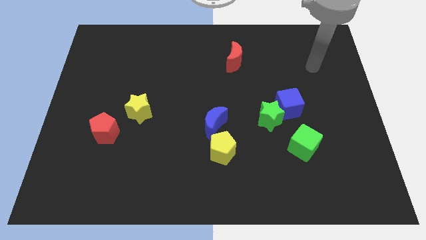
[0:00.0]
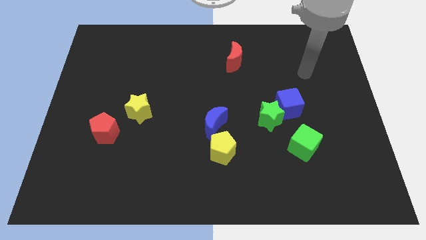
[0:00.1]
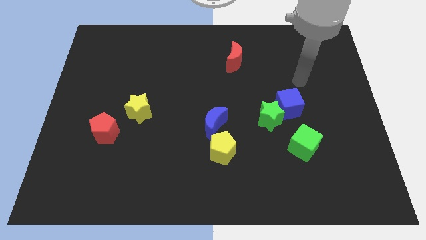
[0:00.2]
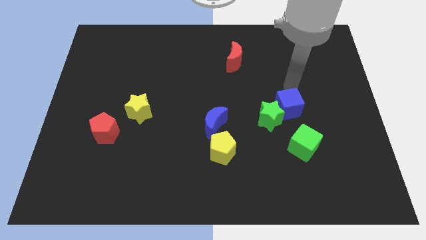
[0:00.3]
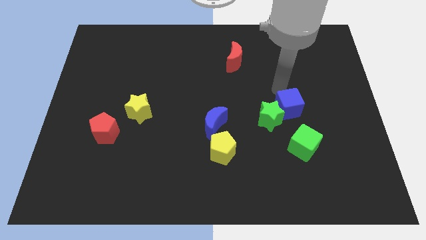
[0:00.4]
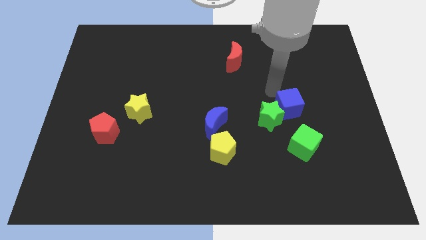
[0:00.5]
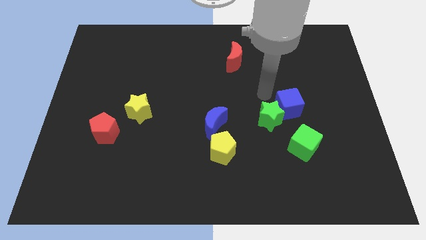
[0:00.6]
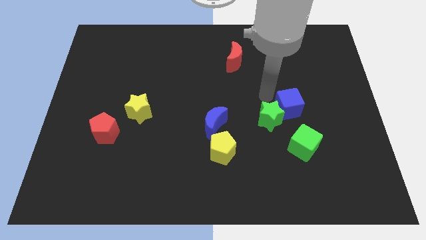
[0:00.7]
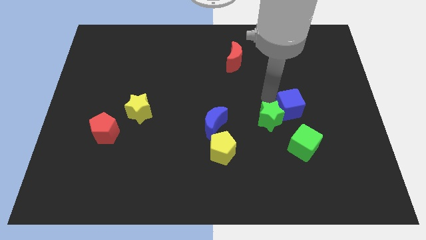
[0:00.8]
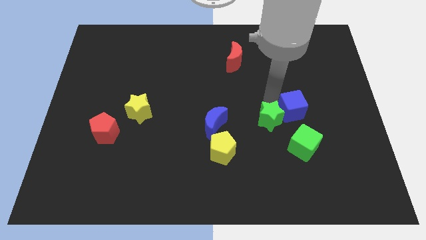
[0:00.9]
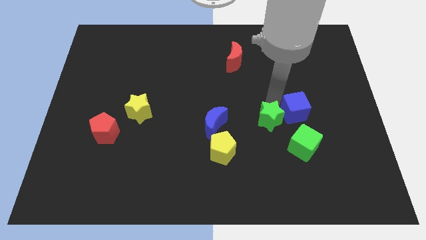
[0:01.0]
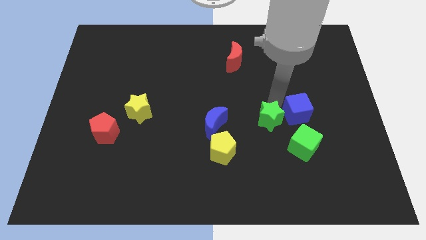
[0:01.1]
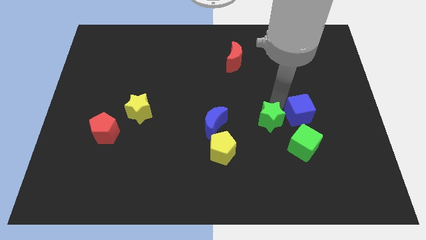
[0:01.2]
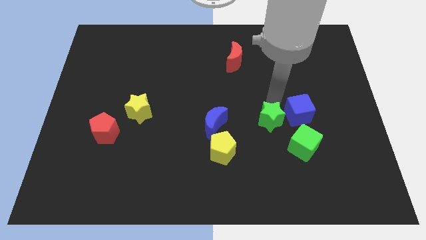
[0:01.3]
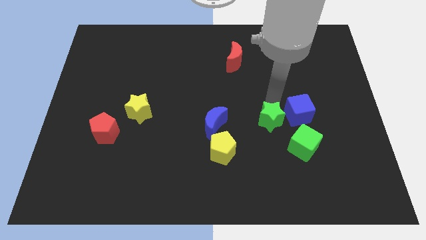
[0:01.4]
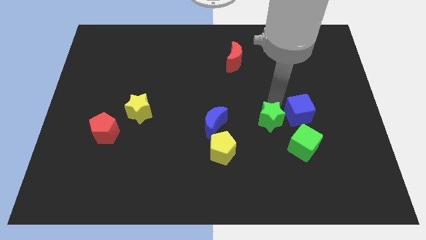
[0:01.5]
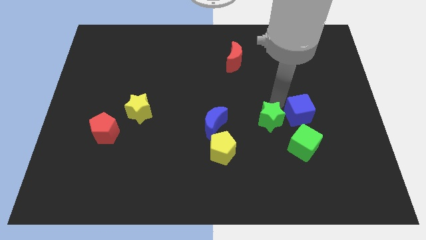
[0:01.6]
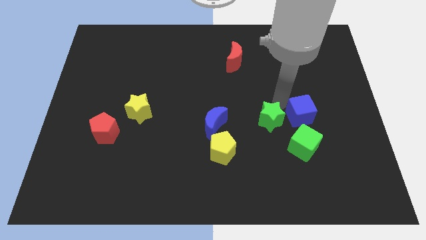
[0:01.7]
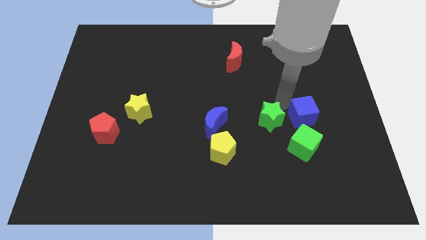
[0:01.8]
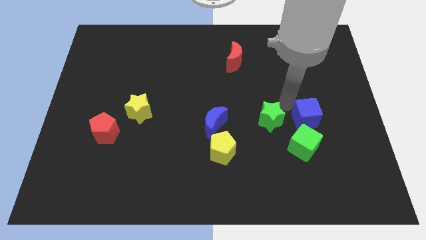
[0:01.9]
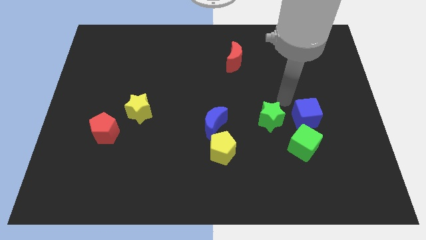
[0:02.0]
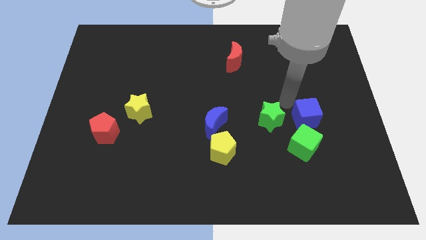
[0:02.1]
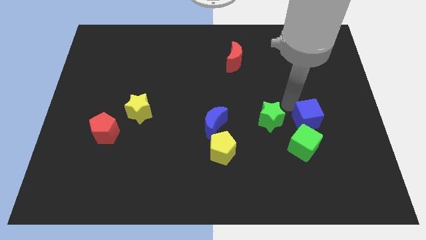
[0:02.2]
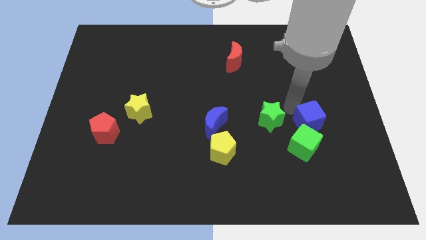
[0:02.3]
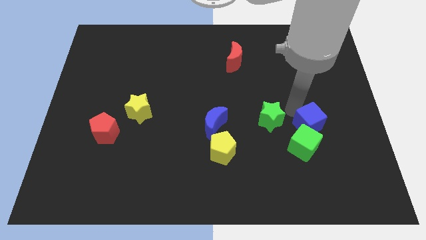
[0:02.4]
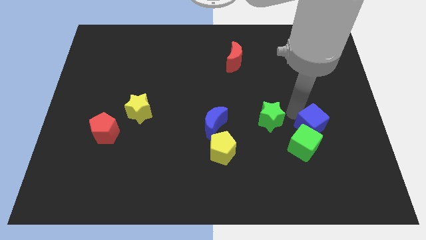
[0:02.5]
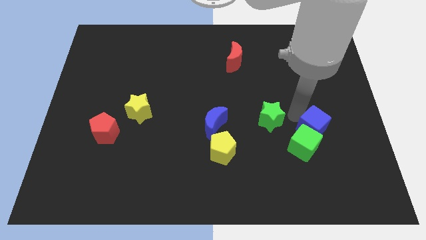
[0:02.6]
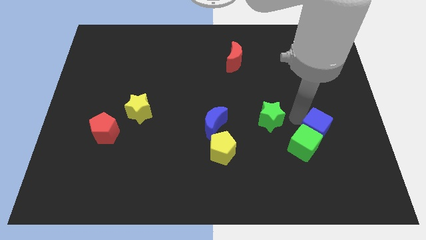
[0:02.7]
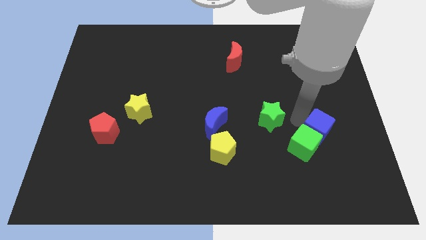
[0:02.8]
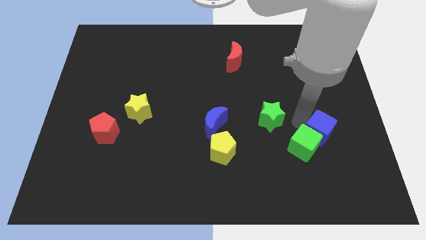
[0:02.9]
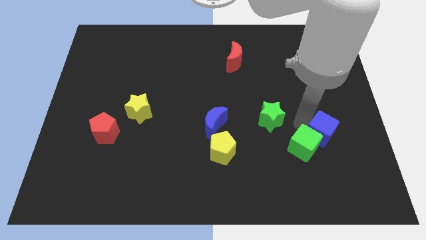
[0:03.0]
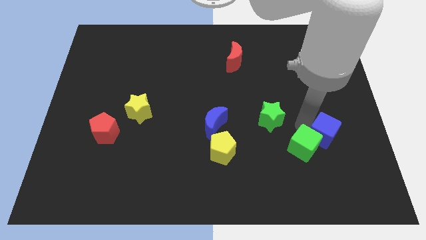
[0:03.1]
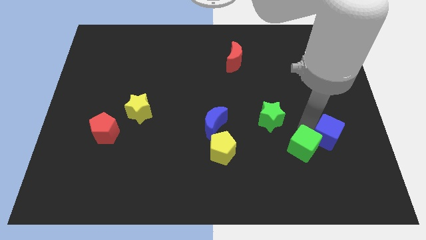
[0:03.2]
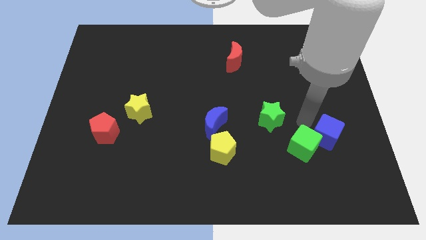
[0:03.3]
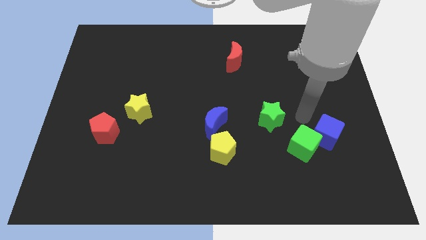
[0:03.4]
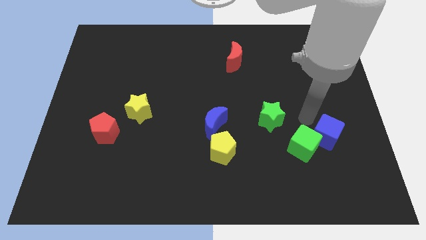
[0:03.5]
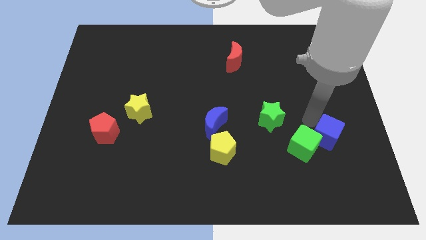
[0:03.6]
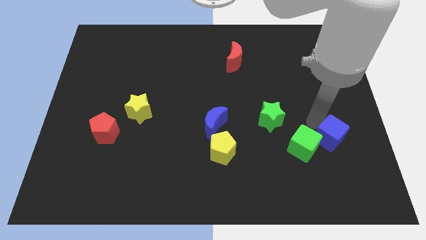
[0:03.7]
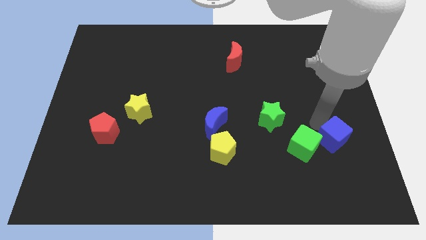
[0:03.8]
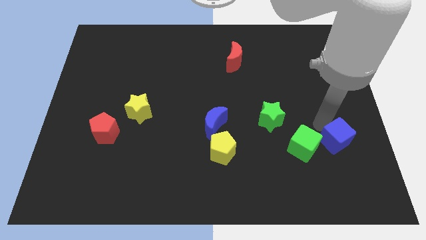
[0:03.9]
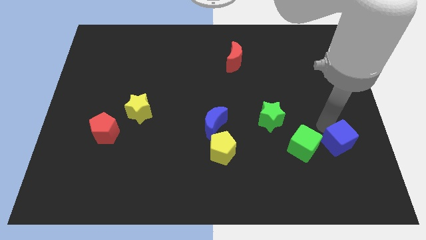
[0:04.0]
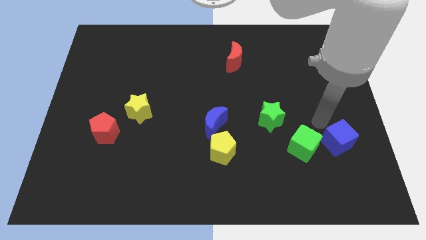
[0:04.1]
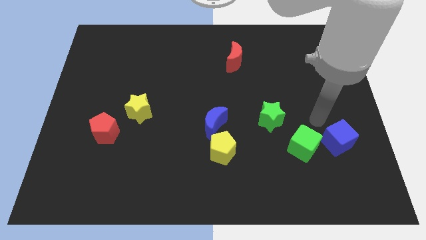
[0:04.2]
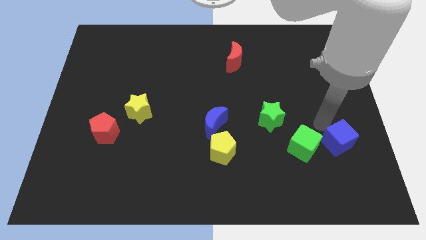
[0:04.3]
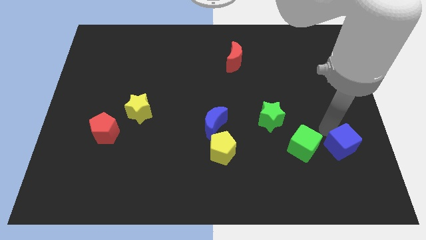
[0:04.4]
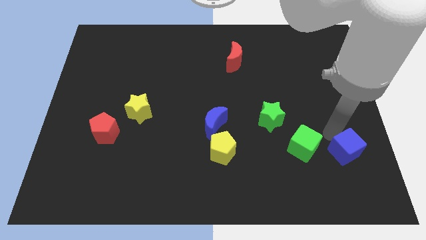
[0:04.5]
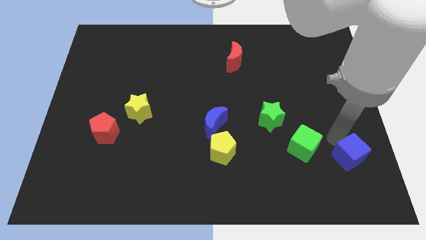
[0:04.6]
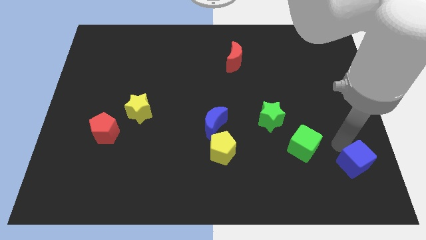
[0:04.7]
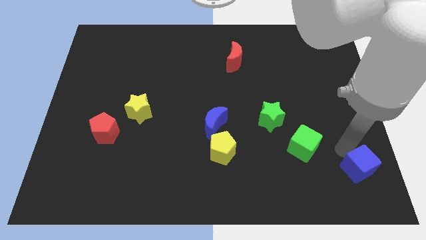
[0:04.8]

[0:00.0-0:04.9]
put the blue cube to the lower right corner

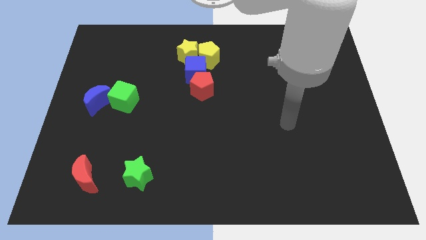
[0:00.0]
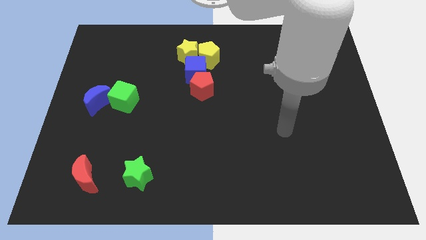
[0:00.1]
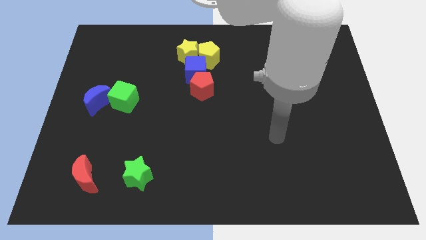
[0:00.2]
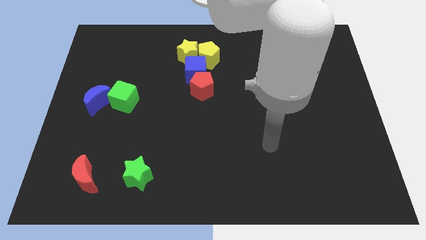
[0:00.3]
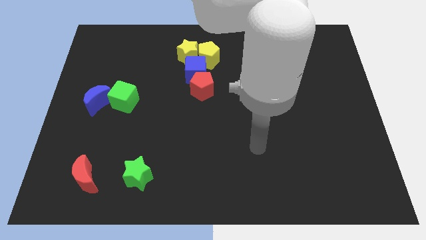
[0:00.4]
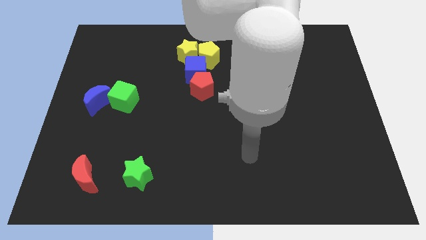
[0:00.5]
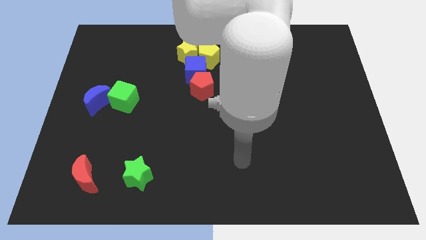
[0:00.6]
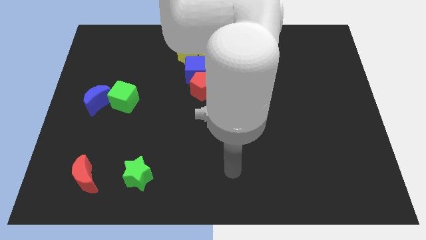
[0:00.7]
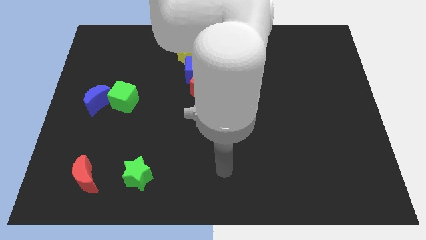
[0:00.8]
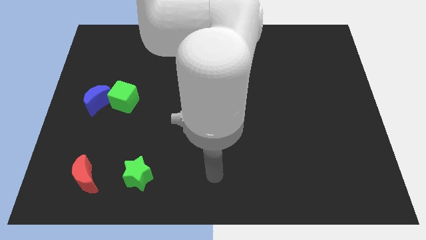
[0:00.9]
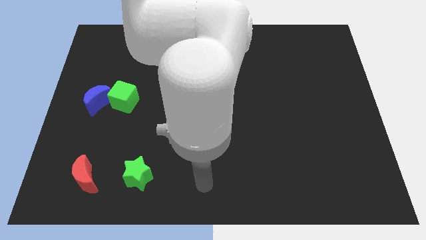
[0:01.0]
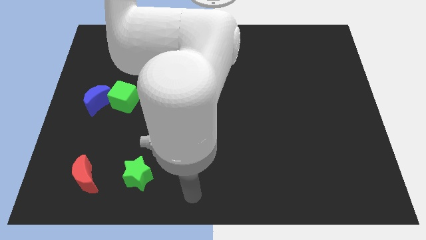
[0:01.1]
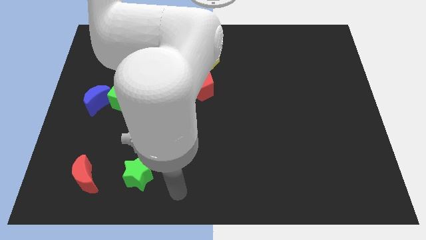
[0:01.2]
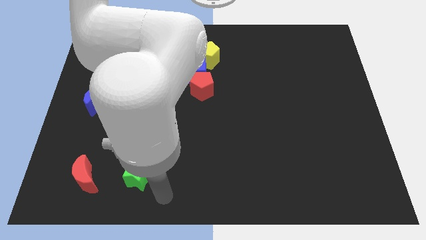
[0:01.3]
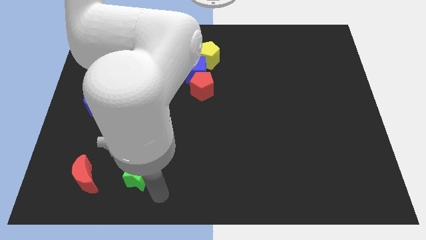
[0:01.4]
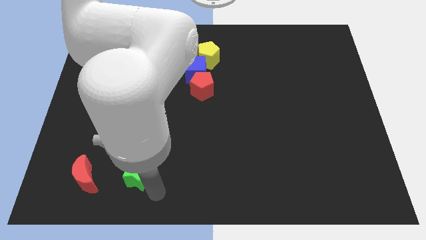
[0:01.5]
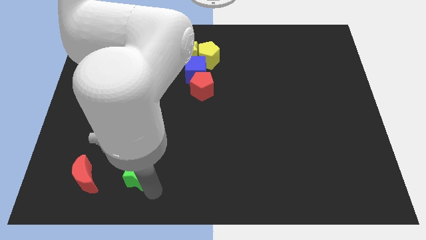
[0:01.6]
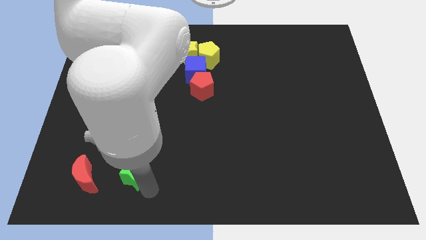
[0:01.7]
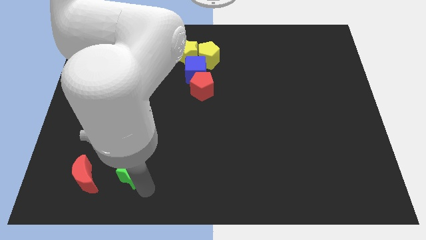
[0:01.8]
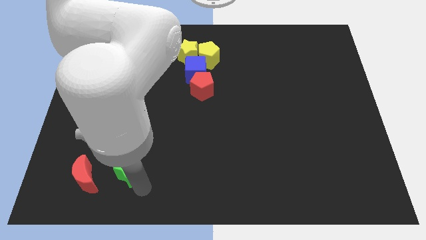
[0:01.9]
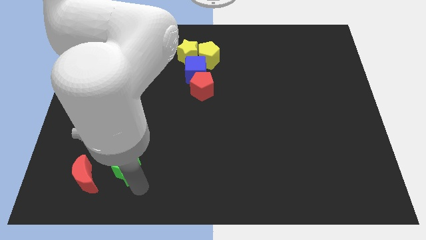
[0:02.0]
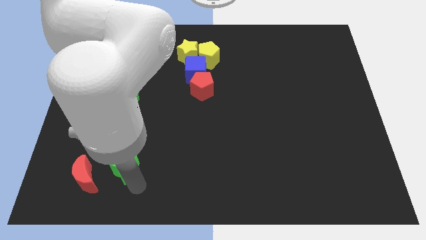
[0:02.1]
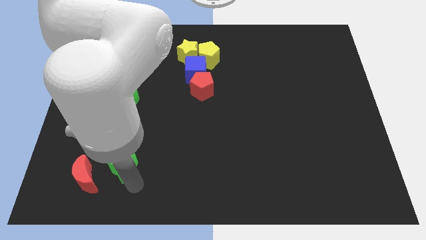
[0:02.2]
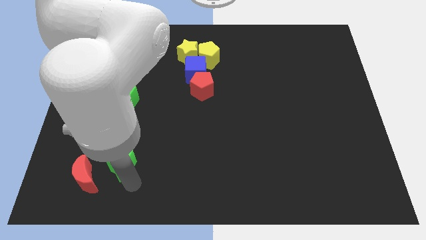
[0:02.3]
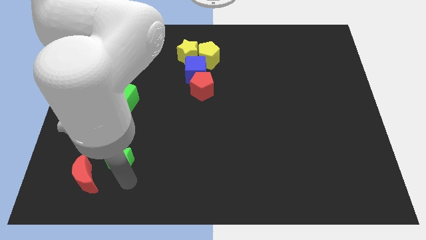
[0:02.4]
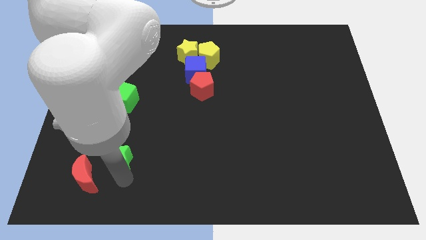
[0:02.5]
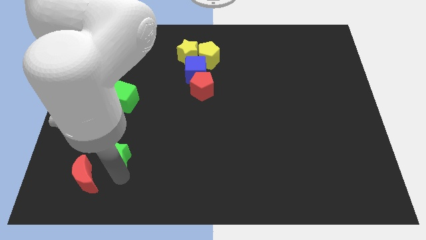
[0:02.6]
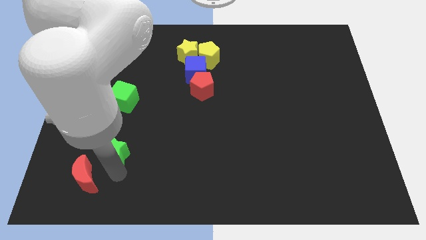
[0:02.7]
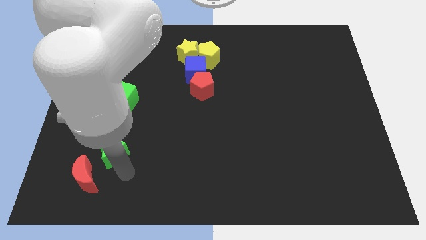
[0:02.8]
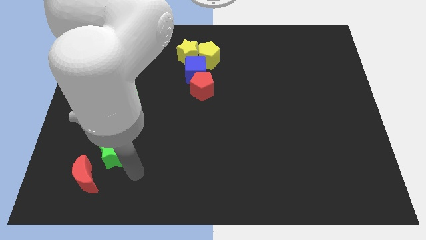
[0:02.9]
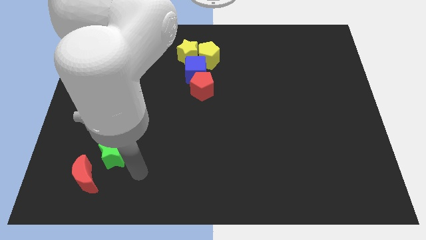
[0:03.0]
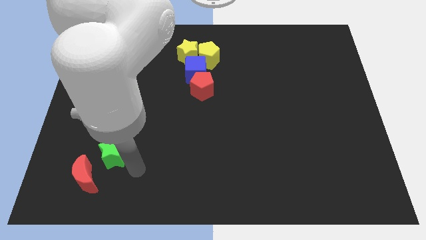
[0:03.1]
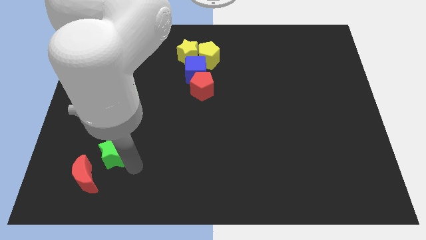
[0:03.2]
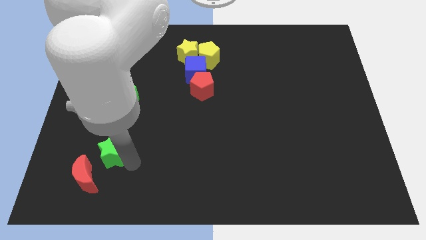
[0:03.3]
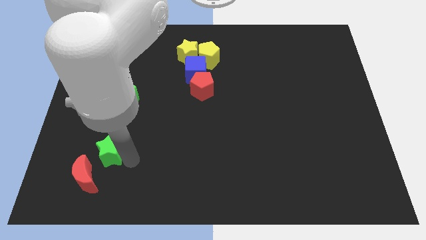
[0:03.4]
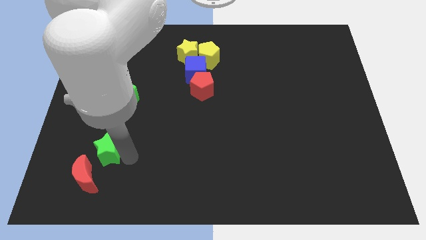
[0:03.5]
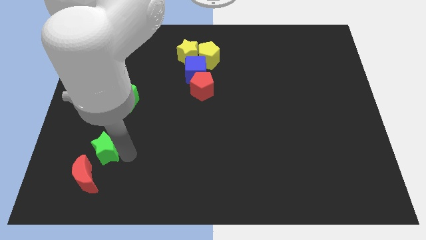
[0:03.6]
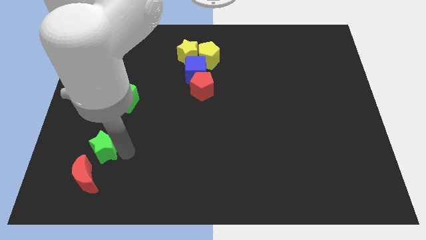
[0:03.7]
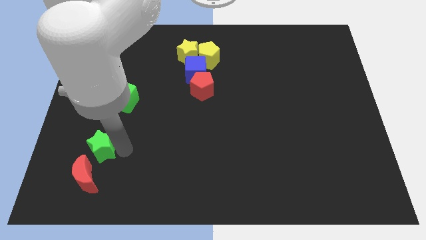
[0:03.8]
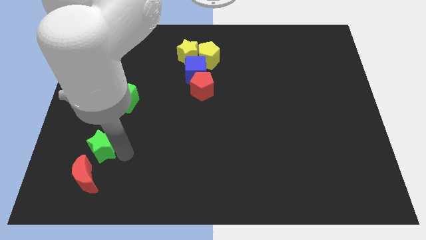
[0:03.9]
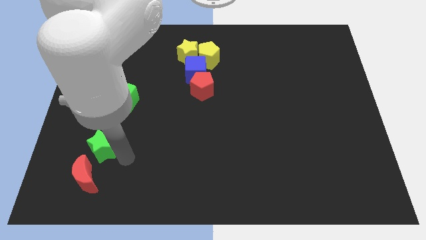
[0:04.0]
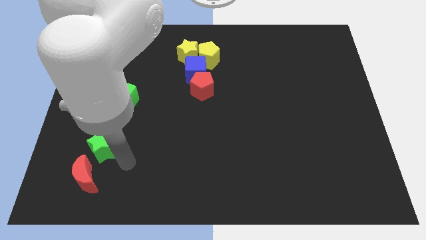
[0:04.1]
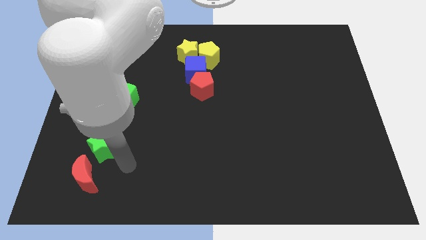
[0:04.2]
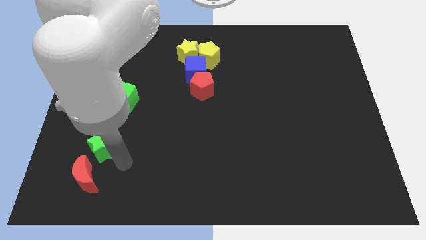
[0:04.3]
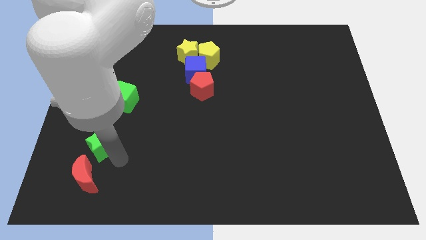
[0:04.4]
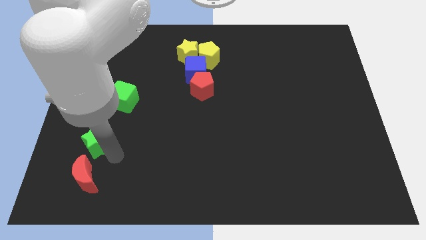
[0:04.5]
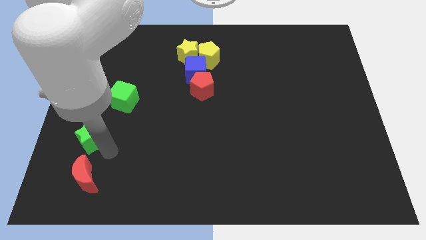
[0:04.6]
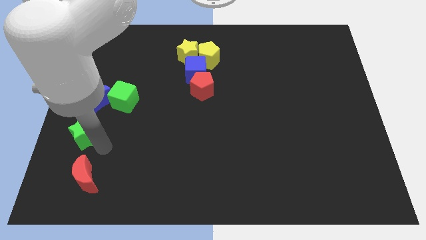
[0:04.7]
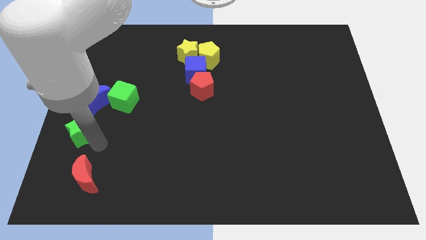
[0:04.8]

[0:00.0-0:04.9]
move the green star to the left side of the board
